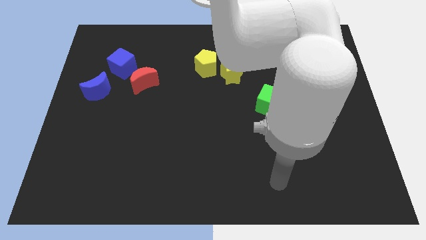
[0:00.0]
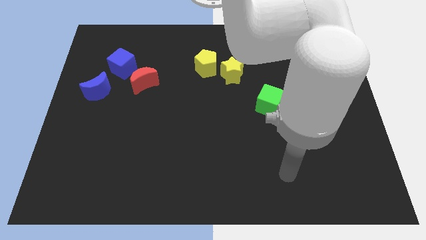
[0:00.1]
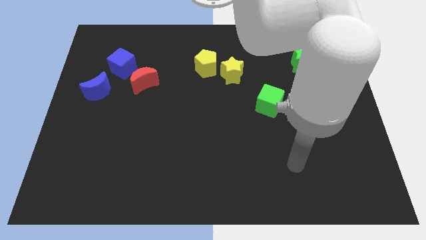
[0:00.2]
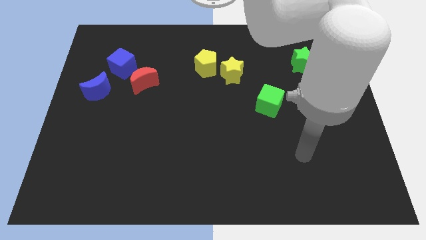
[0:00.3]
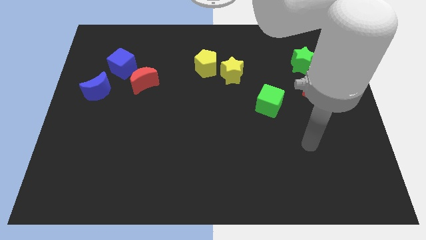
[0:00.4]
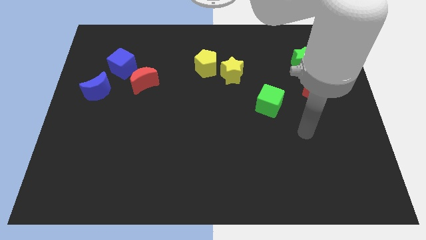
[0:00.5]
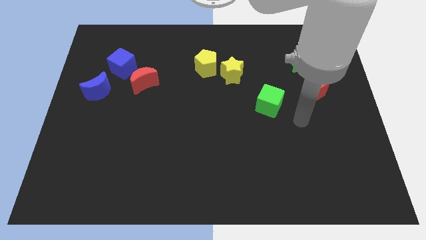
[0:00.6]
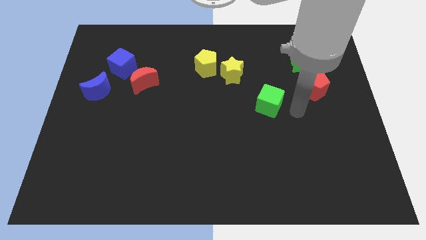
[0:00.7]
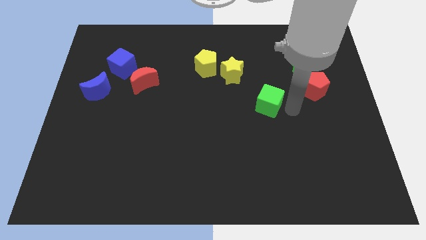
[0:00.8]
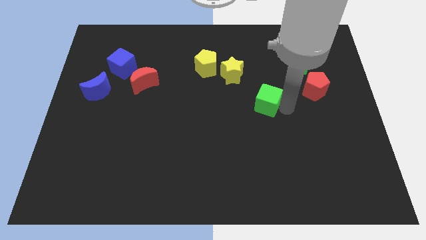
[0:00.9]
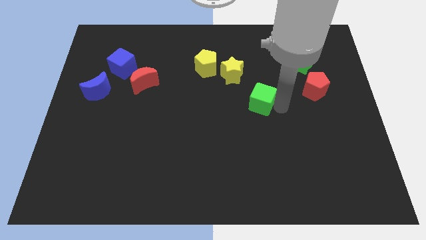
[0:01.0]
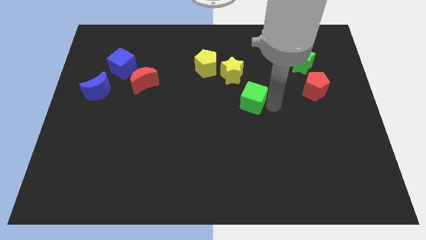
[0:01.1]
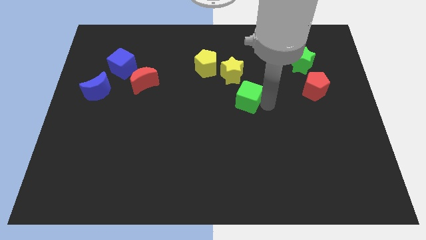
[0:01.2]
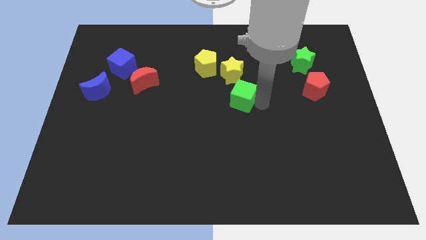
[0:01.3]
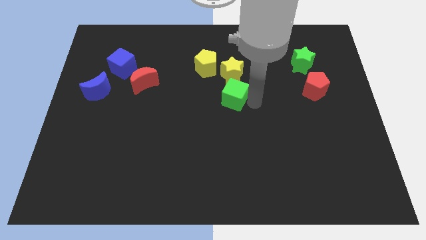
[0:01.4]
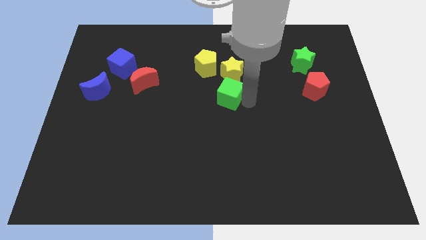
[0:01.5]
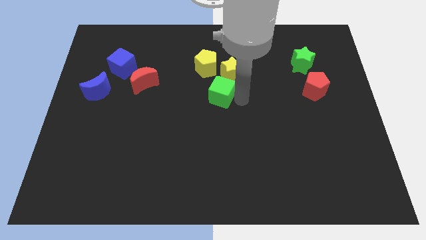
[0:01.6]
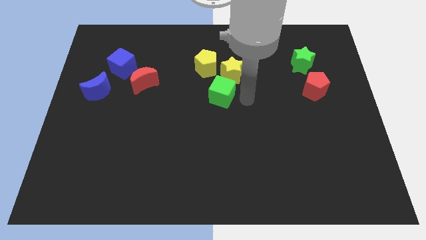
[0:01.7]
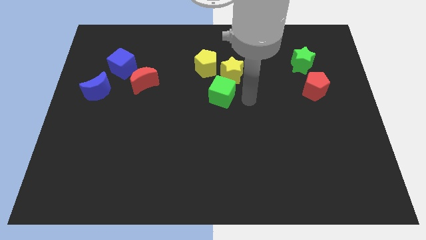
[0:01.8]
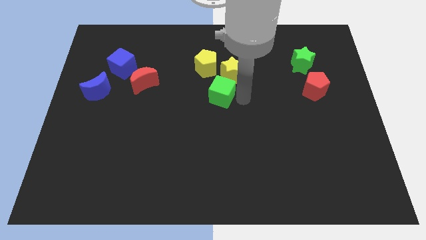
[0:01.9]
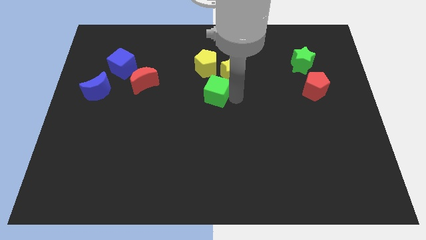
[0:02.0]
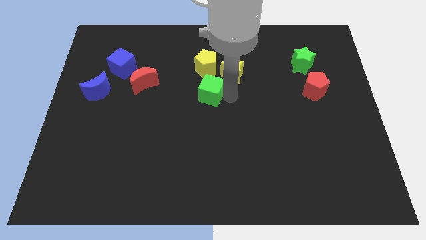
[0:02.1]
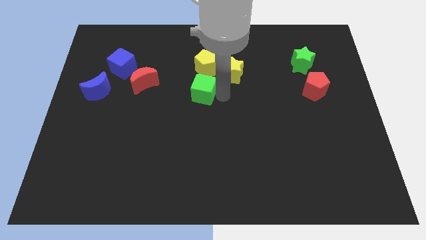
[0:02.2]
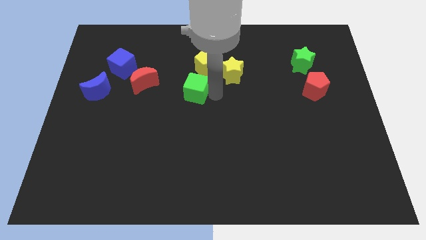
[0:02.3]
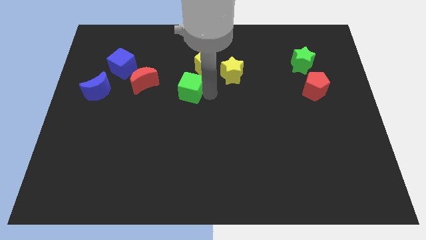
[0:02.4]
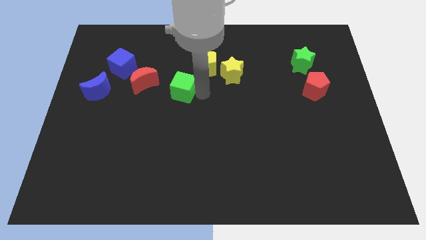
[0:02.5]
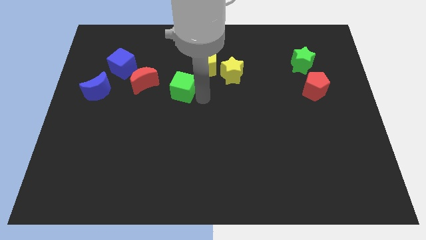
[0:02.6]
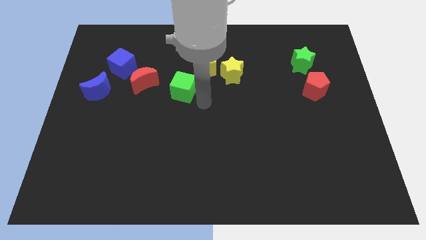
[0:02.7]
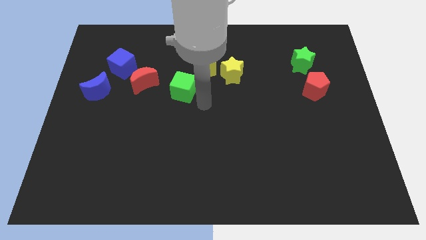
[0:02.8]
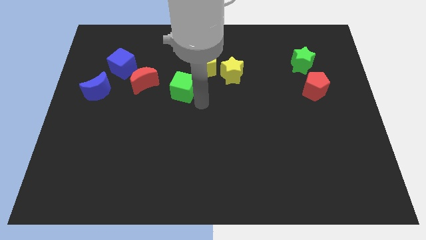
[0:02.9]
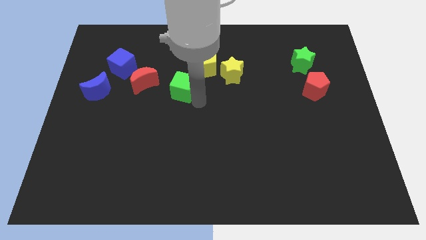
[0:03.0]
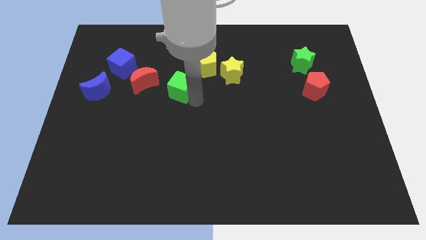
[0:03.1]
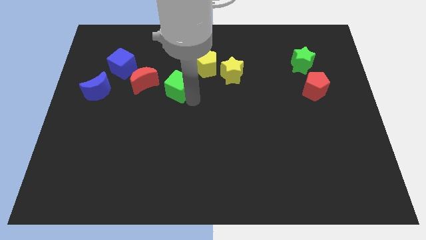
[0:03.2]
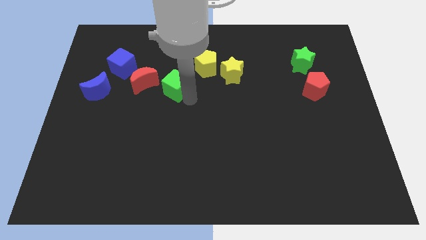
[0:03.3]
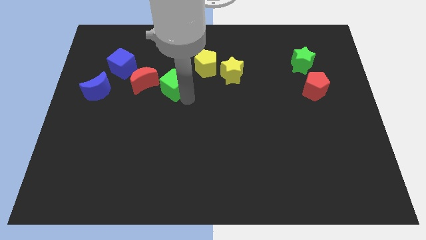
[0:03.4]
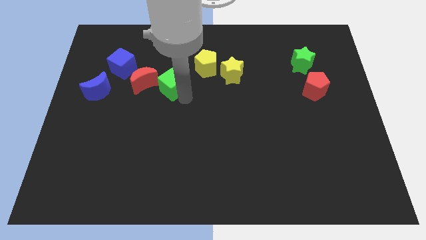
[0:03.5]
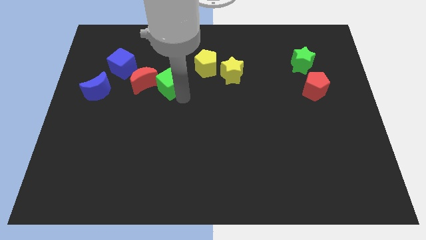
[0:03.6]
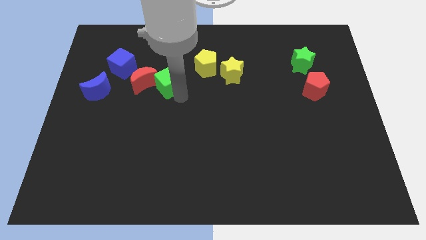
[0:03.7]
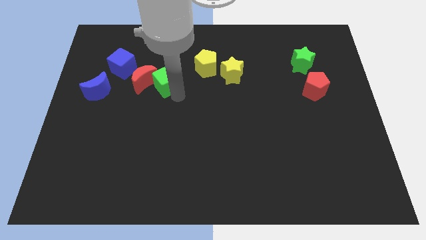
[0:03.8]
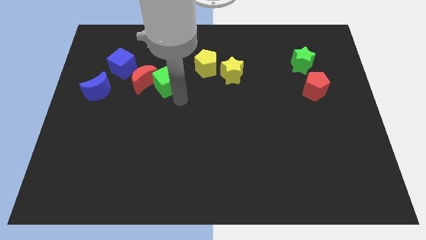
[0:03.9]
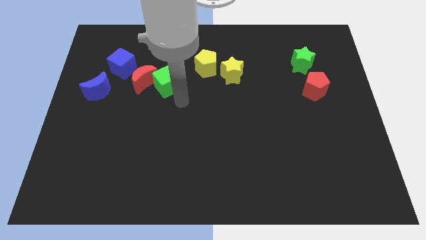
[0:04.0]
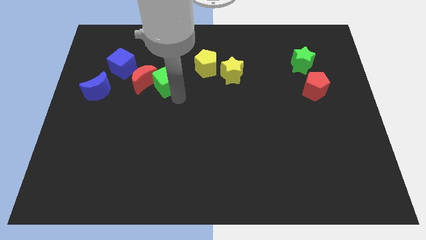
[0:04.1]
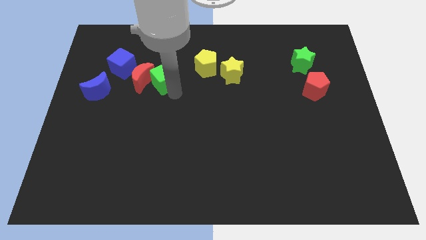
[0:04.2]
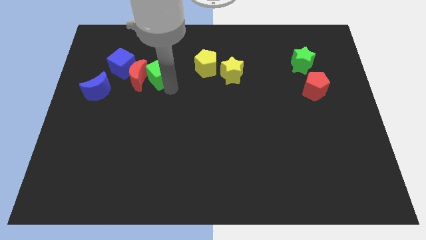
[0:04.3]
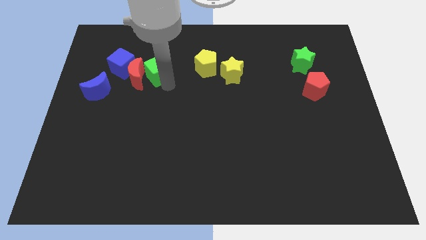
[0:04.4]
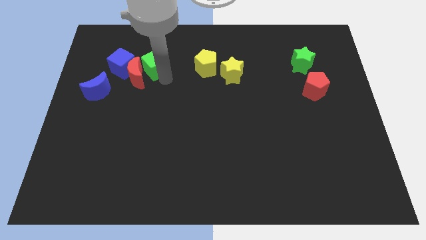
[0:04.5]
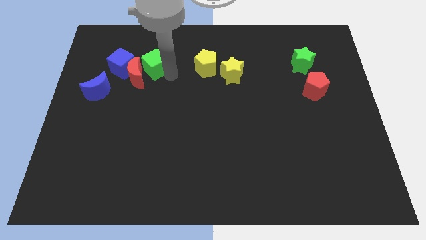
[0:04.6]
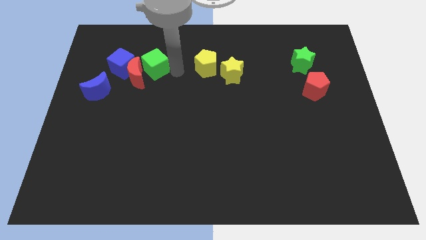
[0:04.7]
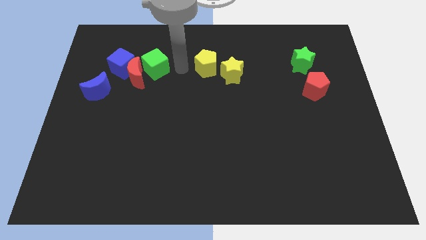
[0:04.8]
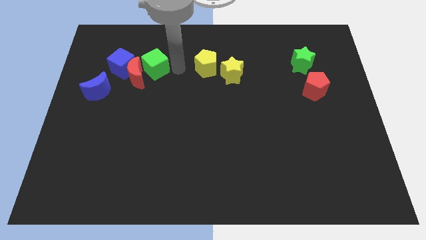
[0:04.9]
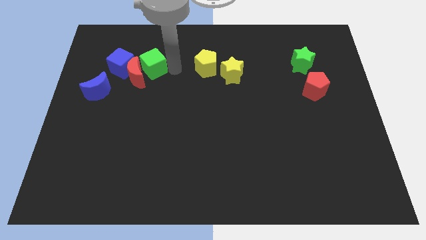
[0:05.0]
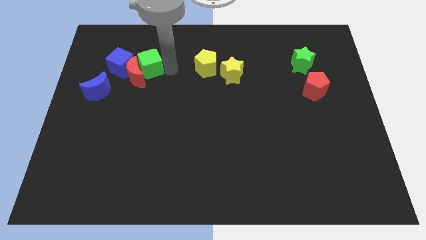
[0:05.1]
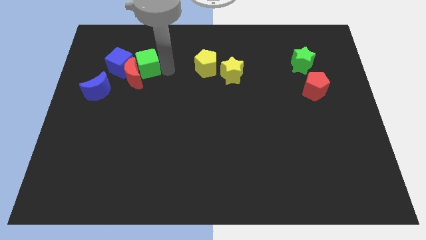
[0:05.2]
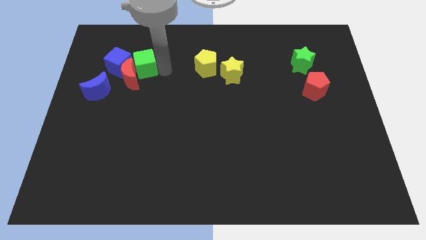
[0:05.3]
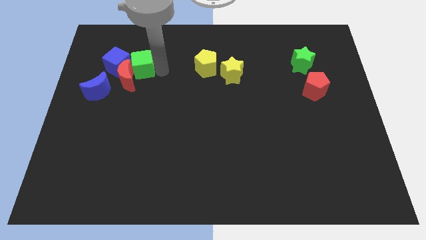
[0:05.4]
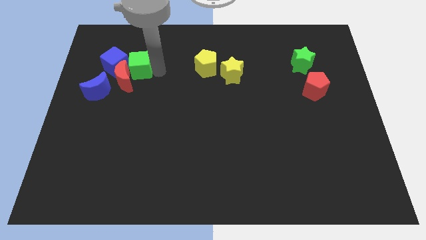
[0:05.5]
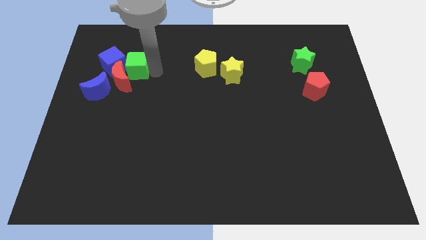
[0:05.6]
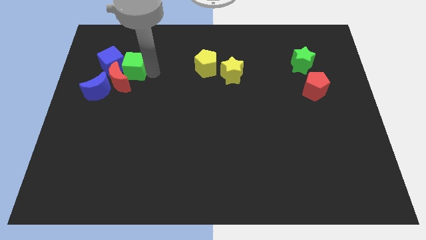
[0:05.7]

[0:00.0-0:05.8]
put the green cube towards the blue cube
